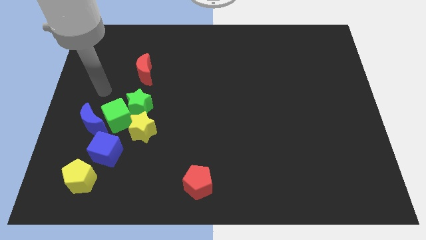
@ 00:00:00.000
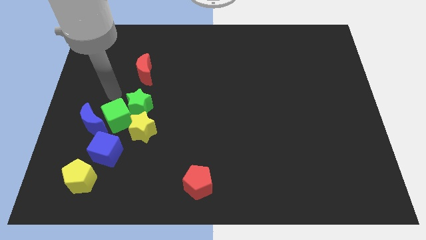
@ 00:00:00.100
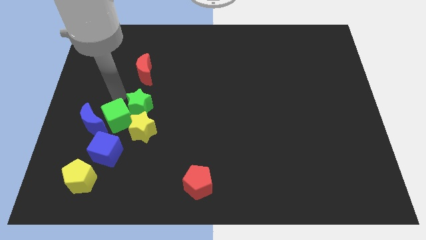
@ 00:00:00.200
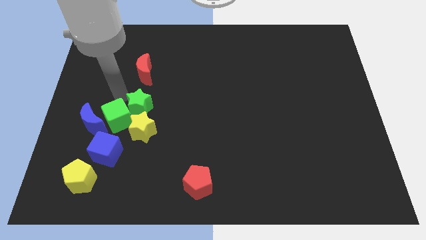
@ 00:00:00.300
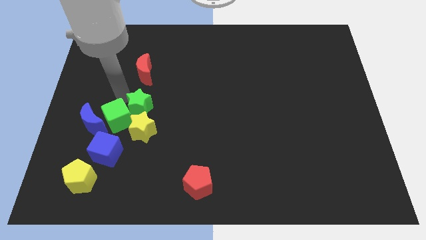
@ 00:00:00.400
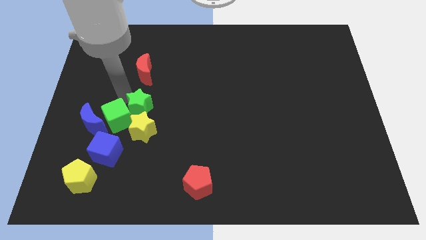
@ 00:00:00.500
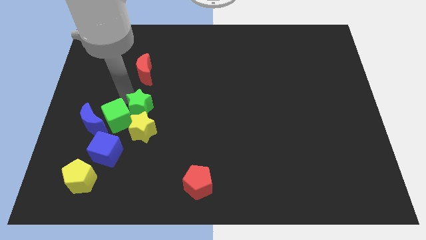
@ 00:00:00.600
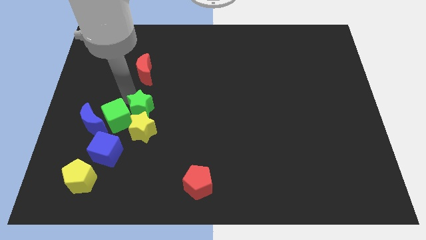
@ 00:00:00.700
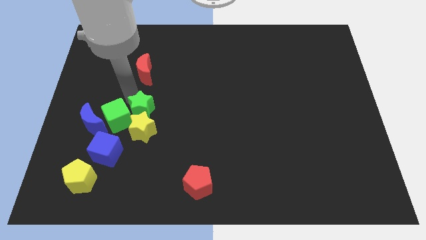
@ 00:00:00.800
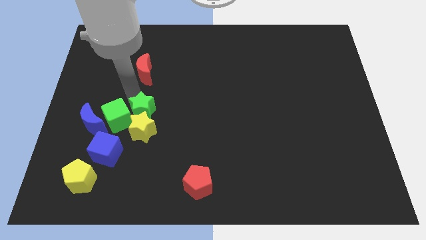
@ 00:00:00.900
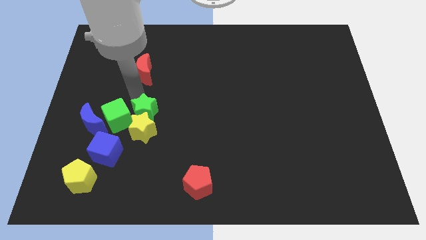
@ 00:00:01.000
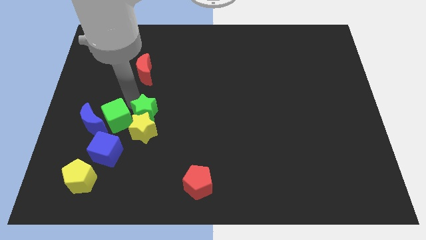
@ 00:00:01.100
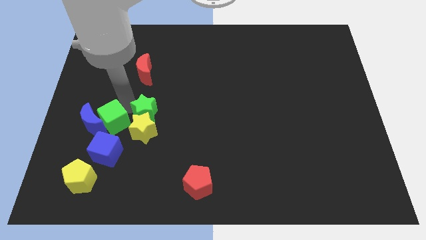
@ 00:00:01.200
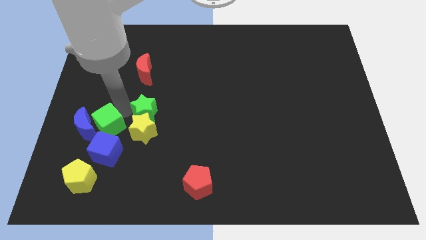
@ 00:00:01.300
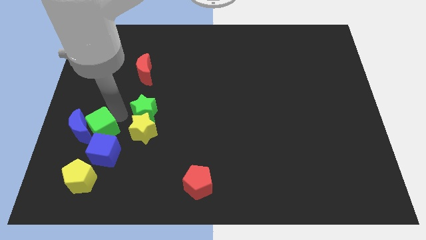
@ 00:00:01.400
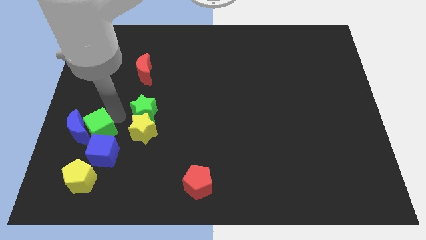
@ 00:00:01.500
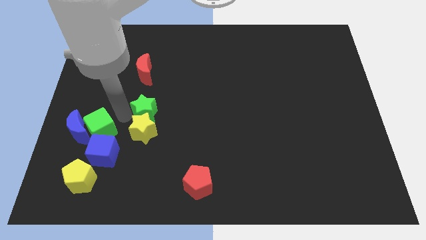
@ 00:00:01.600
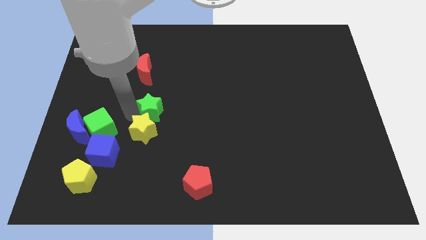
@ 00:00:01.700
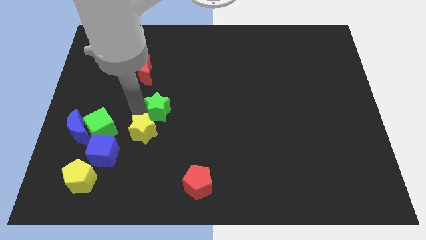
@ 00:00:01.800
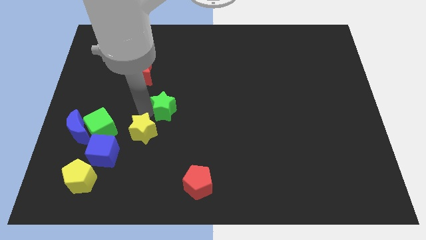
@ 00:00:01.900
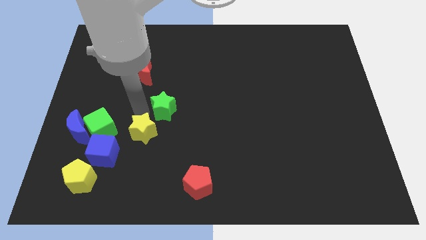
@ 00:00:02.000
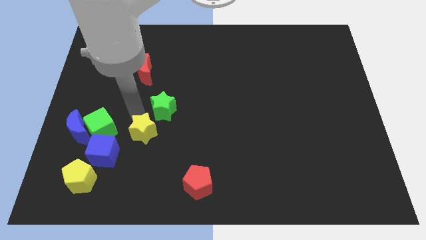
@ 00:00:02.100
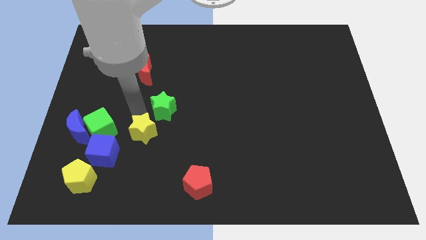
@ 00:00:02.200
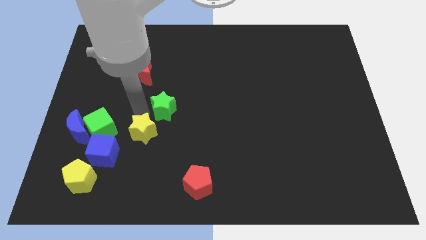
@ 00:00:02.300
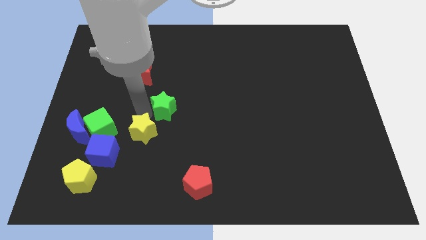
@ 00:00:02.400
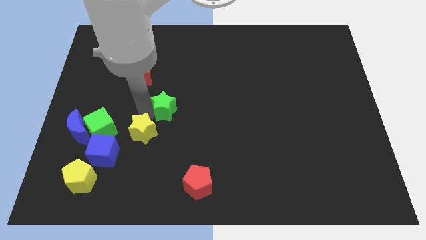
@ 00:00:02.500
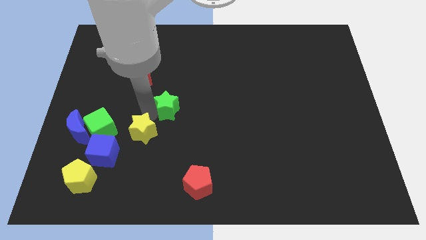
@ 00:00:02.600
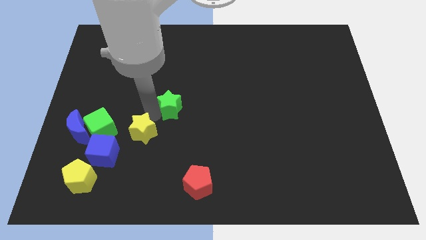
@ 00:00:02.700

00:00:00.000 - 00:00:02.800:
slightly move the green star to the right

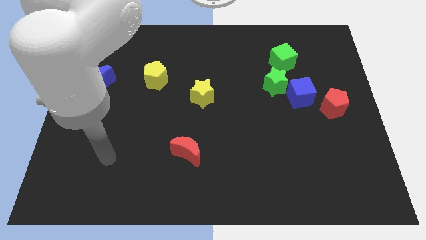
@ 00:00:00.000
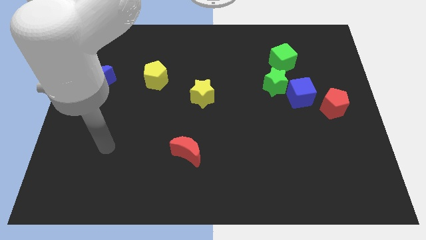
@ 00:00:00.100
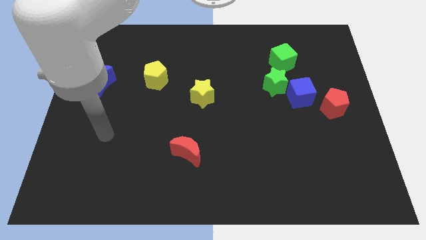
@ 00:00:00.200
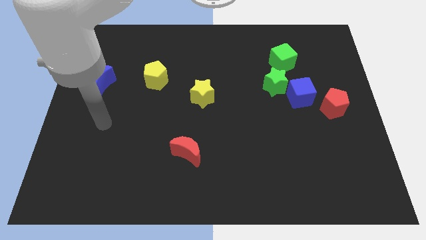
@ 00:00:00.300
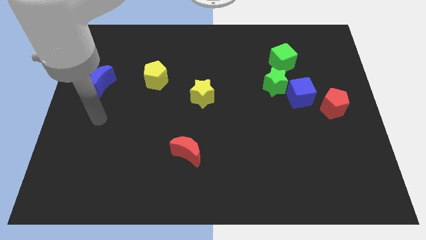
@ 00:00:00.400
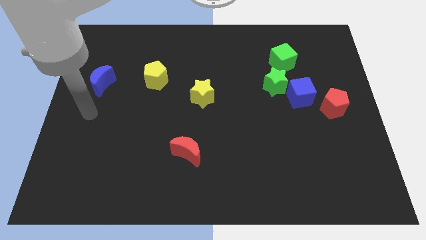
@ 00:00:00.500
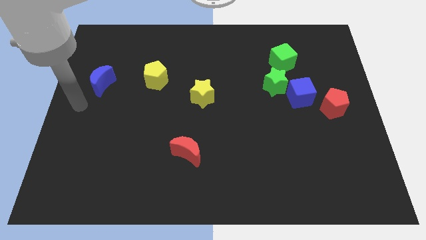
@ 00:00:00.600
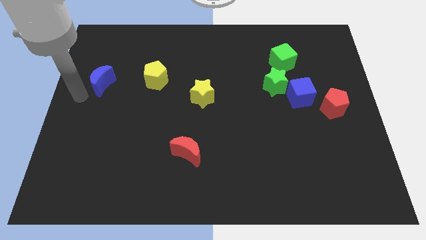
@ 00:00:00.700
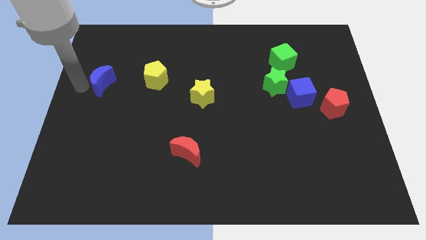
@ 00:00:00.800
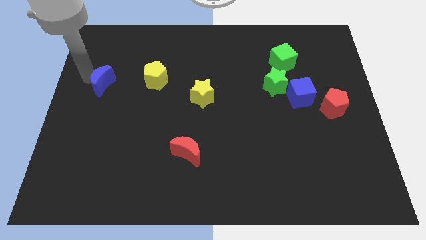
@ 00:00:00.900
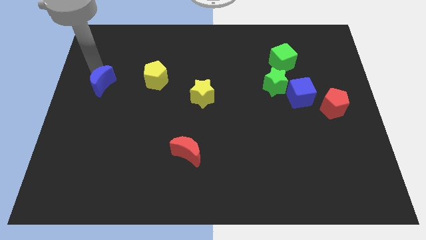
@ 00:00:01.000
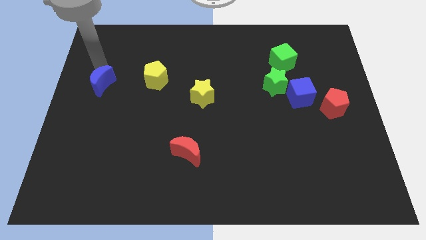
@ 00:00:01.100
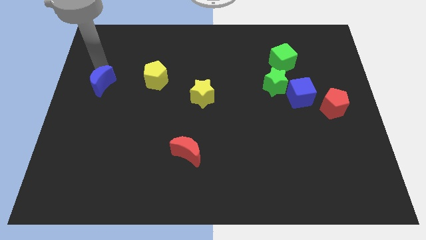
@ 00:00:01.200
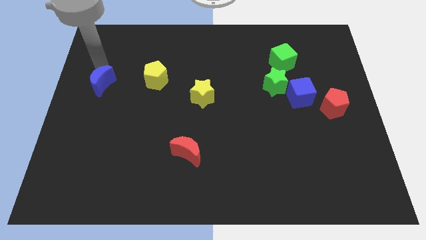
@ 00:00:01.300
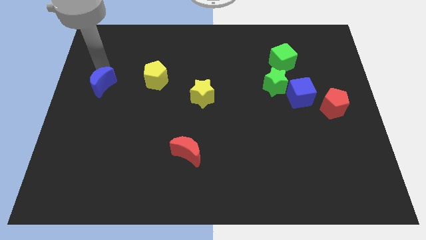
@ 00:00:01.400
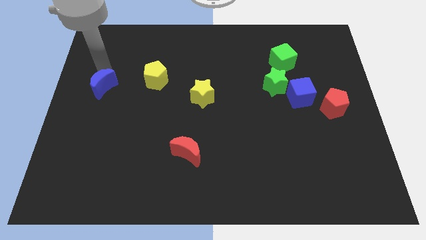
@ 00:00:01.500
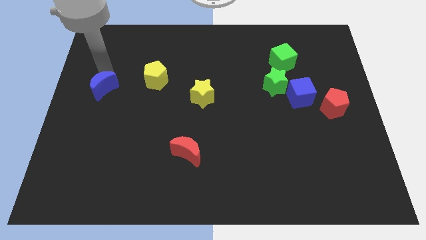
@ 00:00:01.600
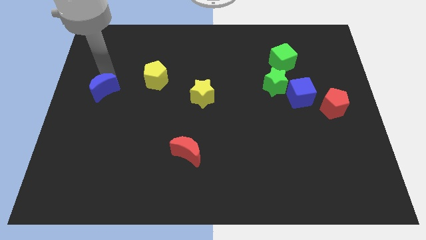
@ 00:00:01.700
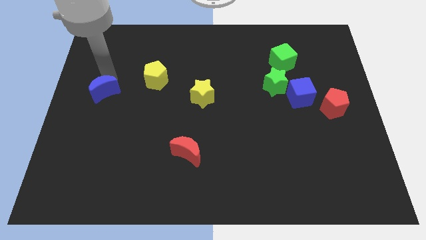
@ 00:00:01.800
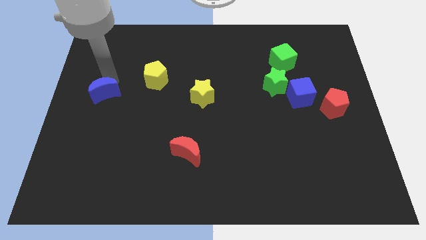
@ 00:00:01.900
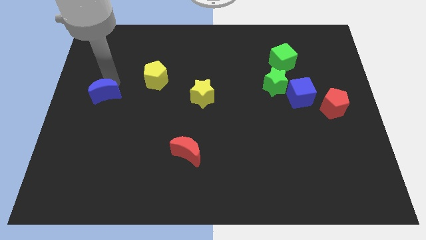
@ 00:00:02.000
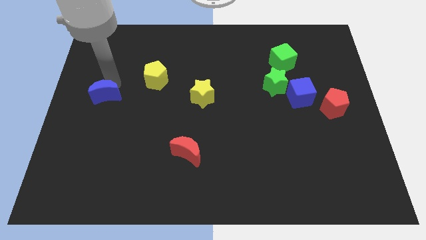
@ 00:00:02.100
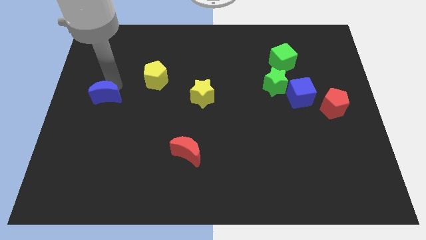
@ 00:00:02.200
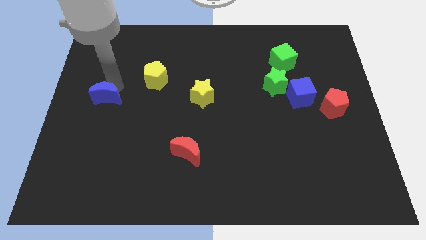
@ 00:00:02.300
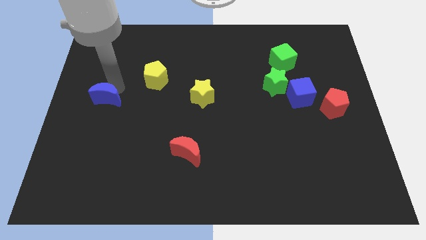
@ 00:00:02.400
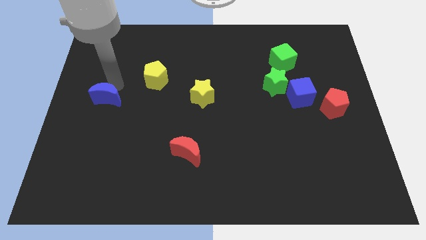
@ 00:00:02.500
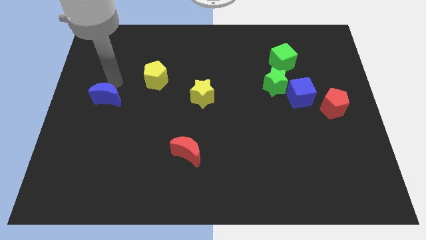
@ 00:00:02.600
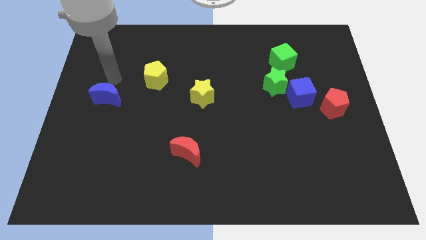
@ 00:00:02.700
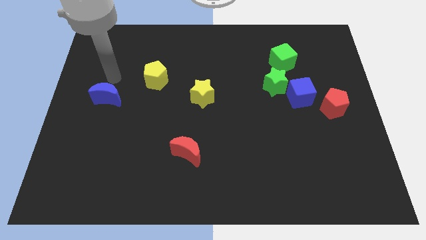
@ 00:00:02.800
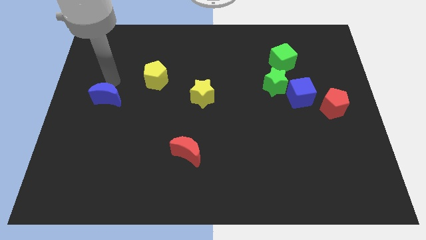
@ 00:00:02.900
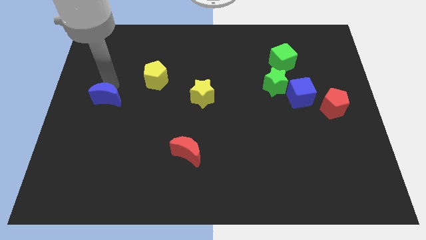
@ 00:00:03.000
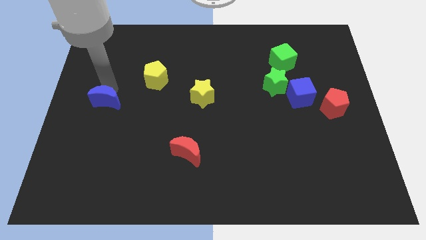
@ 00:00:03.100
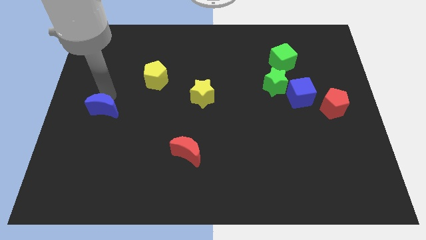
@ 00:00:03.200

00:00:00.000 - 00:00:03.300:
slide the blue moon downwards a little bit

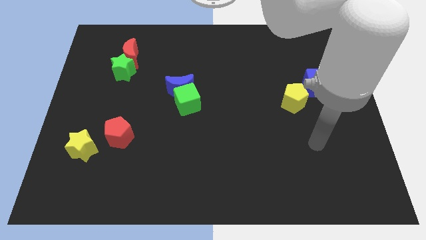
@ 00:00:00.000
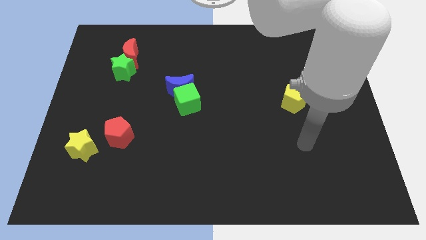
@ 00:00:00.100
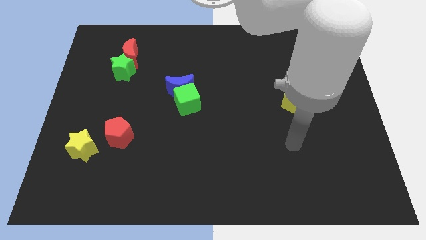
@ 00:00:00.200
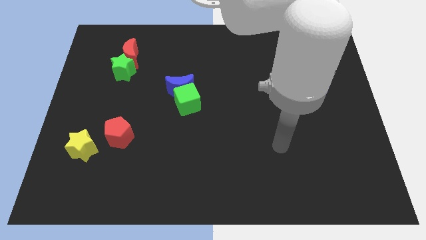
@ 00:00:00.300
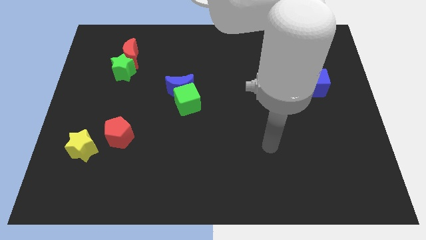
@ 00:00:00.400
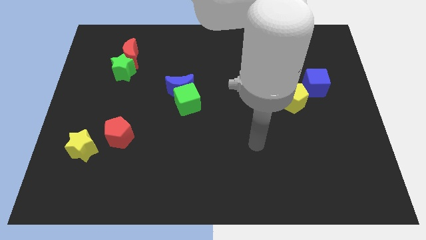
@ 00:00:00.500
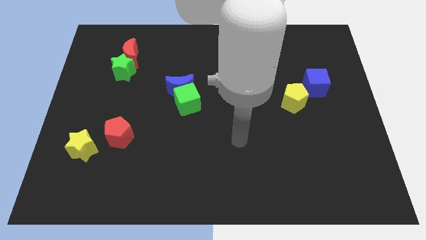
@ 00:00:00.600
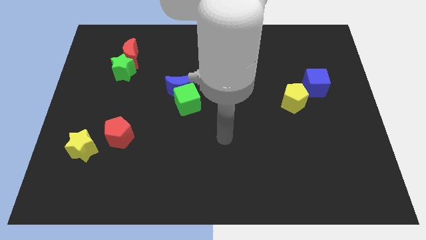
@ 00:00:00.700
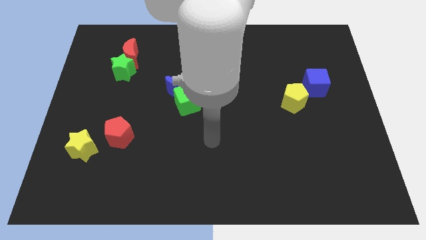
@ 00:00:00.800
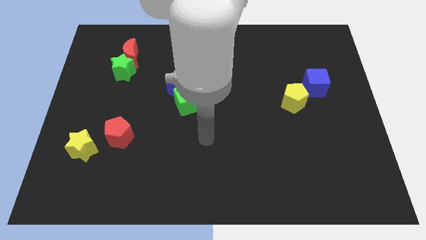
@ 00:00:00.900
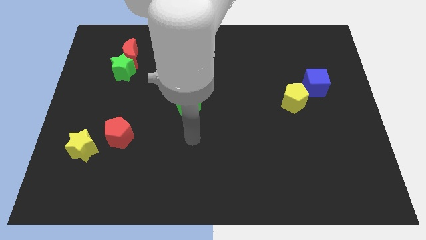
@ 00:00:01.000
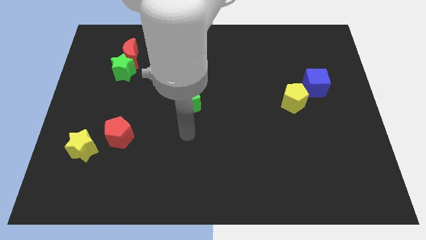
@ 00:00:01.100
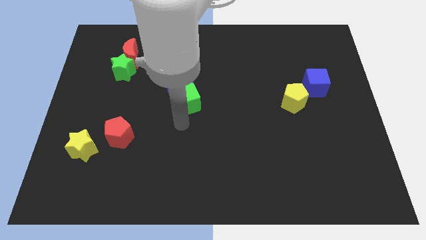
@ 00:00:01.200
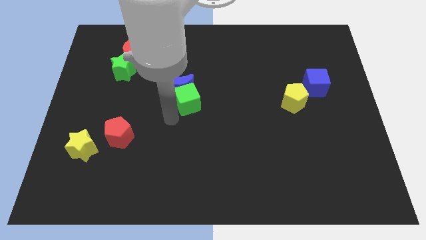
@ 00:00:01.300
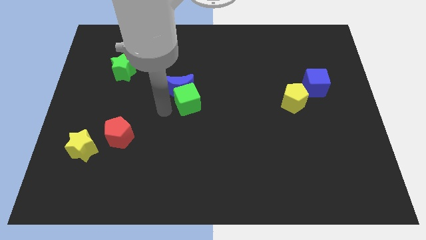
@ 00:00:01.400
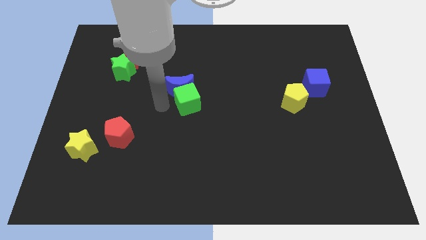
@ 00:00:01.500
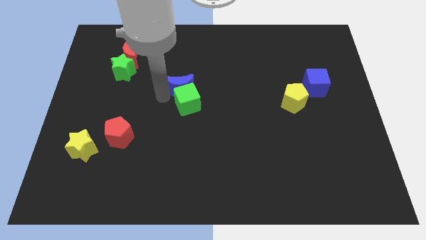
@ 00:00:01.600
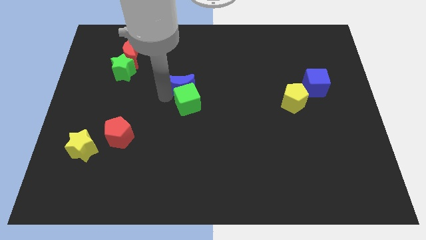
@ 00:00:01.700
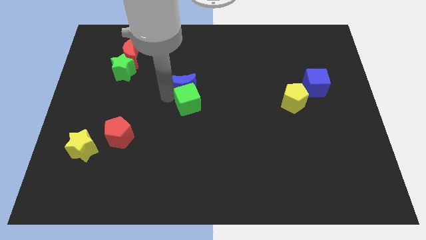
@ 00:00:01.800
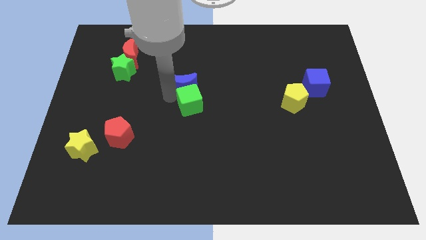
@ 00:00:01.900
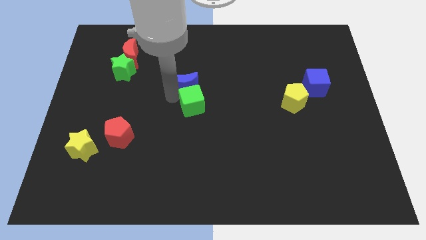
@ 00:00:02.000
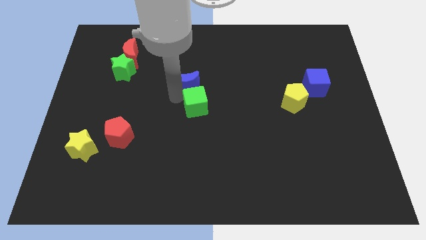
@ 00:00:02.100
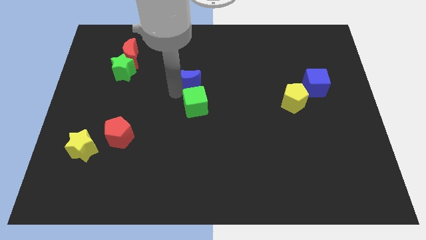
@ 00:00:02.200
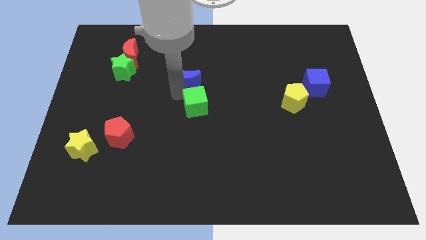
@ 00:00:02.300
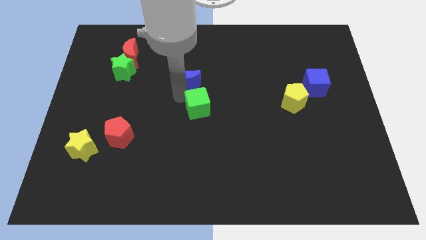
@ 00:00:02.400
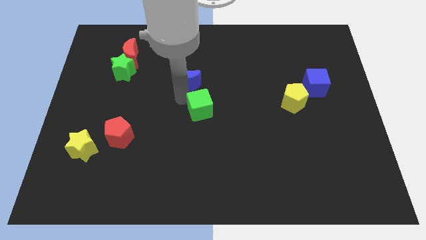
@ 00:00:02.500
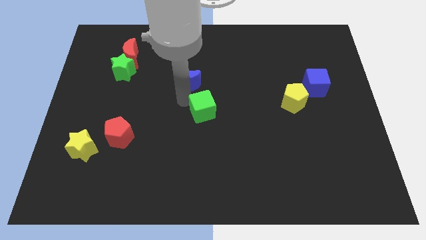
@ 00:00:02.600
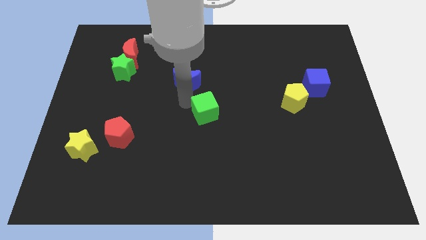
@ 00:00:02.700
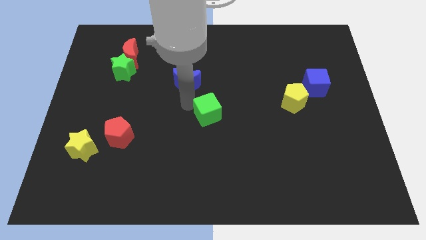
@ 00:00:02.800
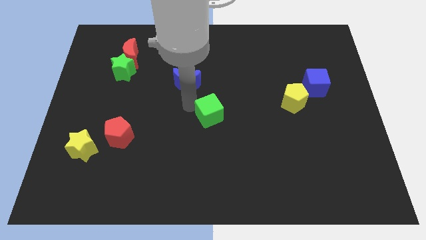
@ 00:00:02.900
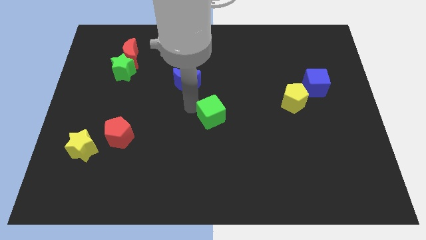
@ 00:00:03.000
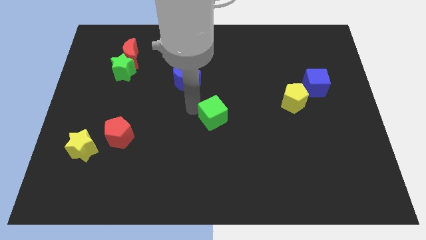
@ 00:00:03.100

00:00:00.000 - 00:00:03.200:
slide the green cube somewhat downwards and to the right diagonally
